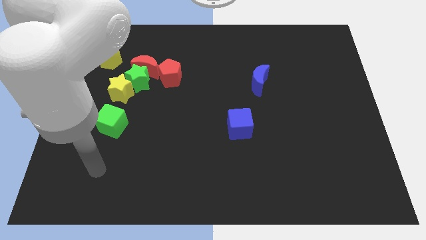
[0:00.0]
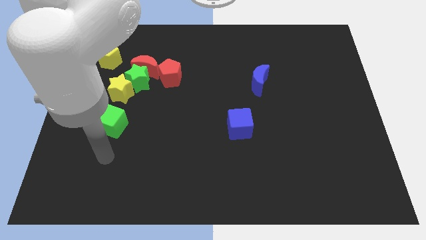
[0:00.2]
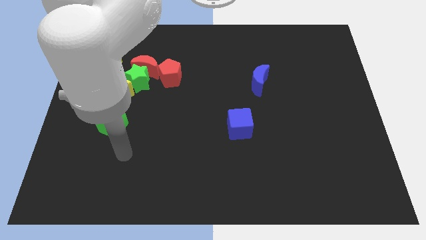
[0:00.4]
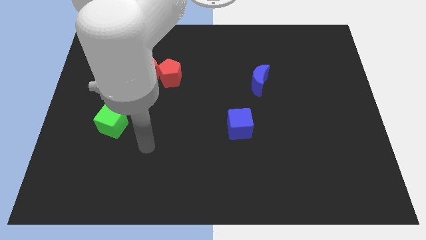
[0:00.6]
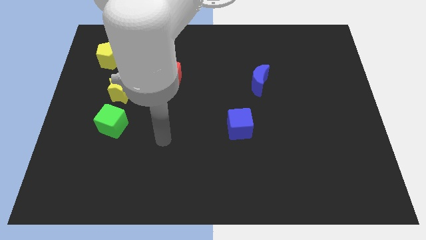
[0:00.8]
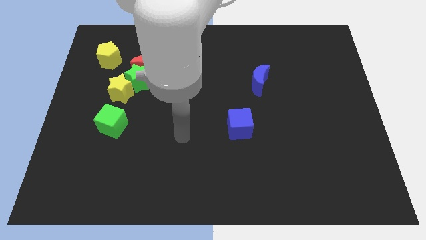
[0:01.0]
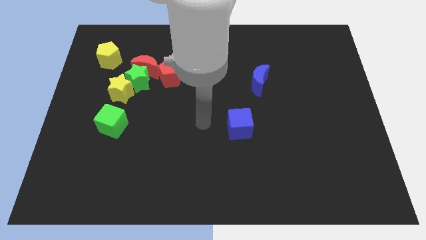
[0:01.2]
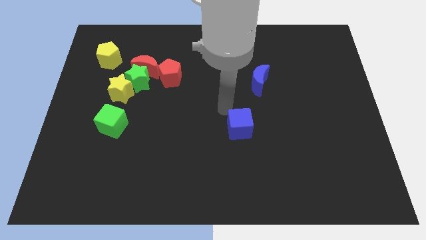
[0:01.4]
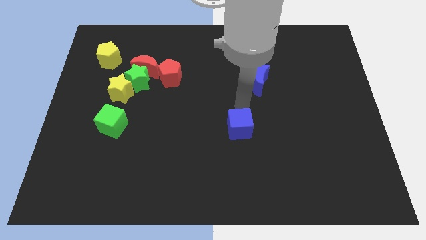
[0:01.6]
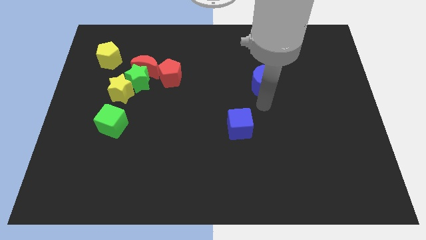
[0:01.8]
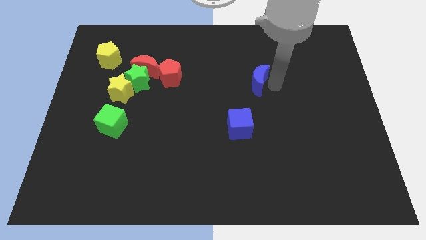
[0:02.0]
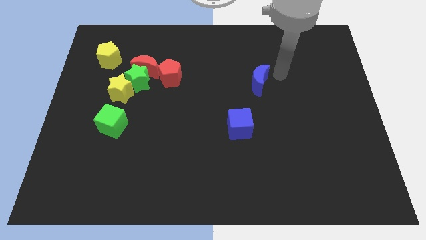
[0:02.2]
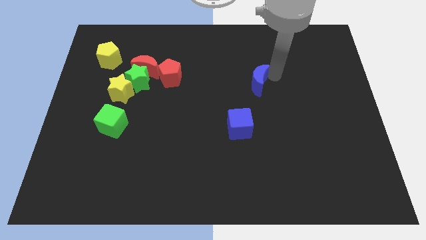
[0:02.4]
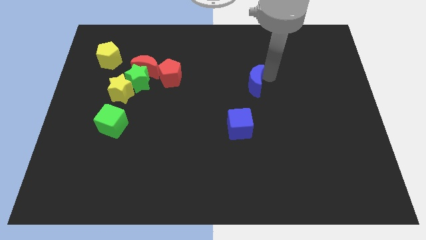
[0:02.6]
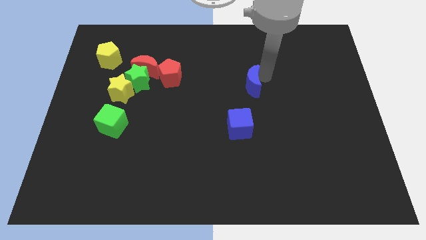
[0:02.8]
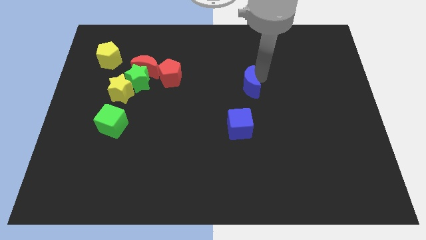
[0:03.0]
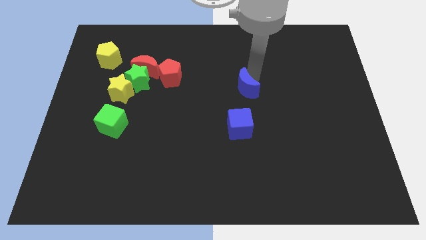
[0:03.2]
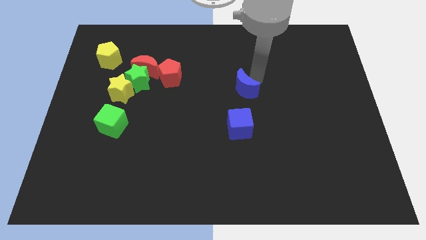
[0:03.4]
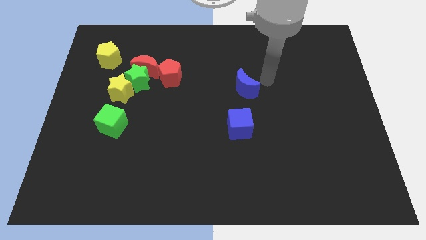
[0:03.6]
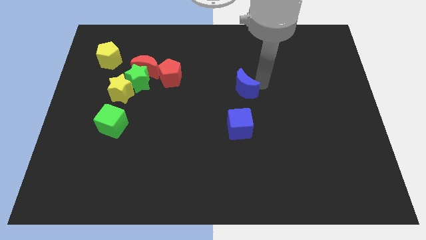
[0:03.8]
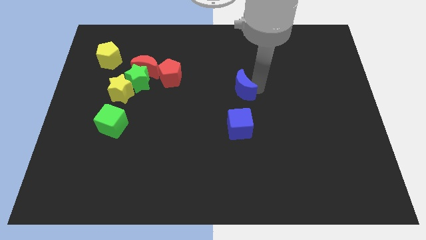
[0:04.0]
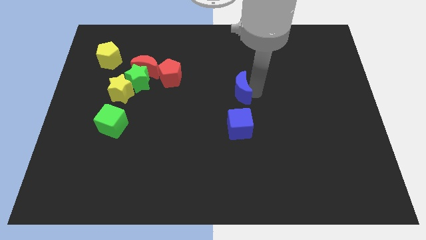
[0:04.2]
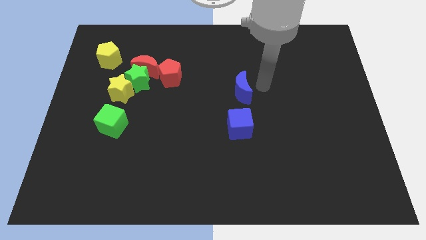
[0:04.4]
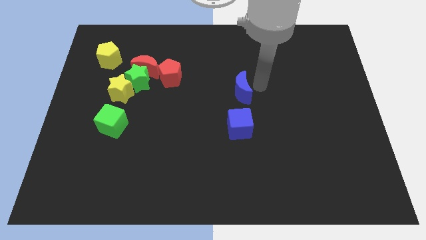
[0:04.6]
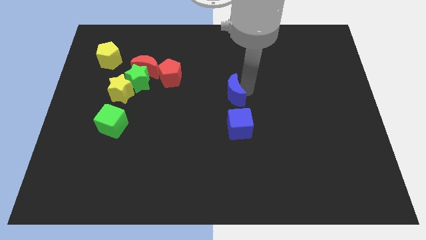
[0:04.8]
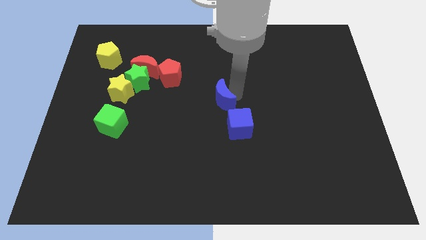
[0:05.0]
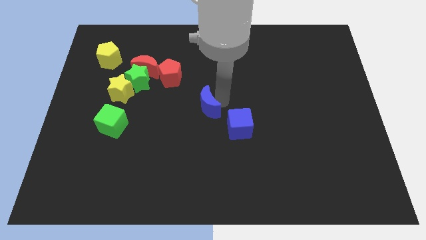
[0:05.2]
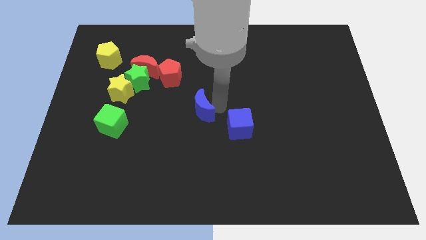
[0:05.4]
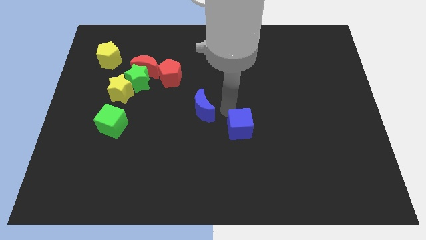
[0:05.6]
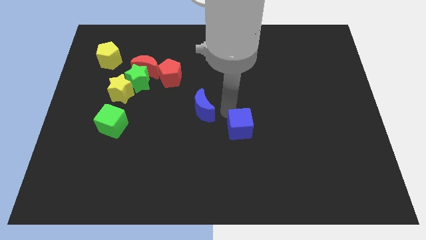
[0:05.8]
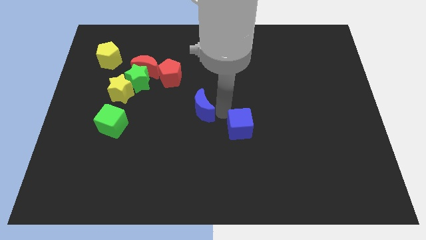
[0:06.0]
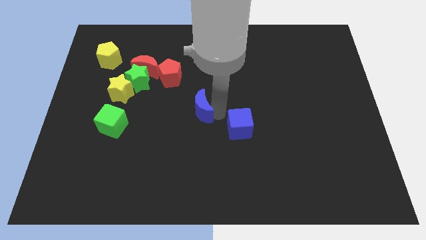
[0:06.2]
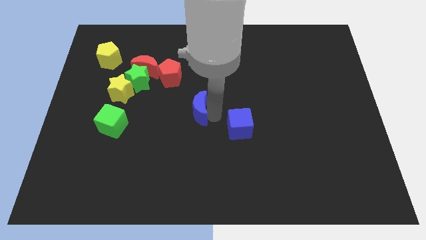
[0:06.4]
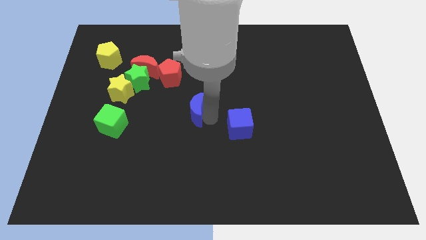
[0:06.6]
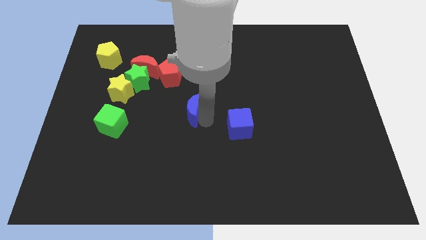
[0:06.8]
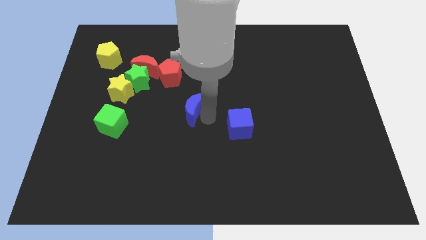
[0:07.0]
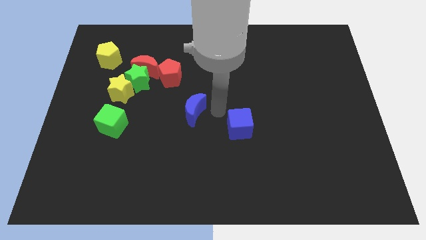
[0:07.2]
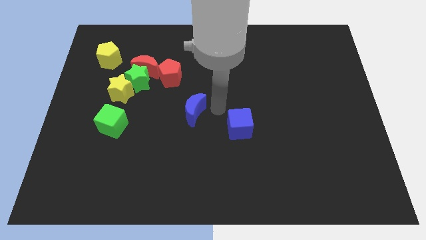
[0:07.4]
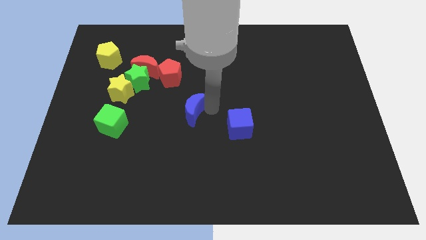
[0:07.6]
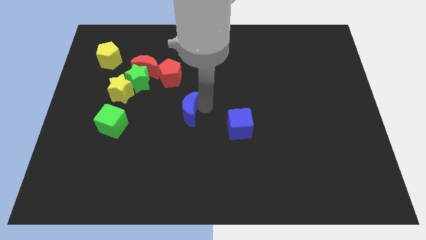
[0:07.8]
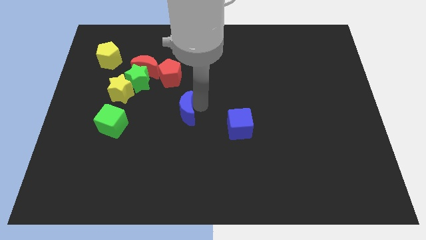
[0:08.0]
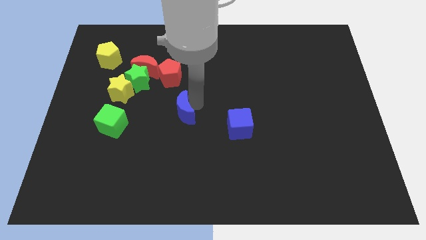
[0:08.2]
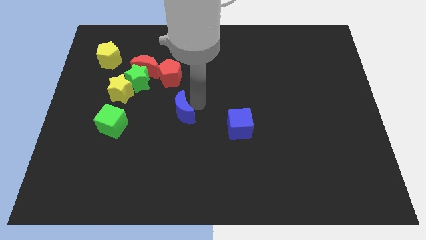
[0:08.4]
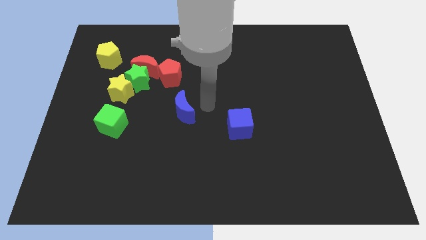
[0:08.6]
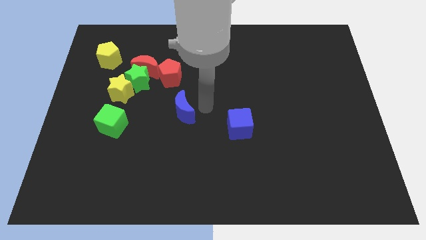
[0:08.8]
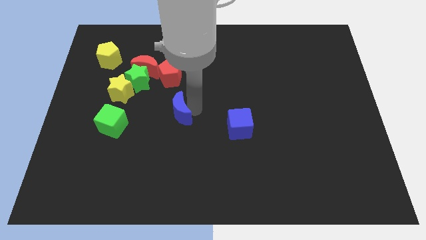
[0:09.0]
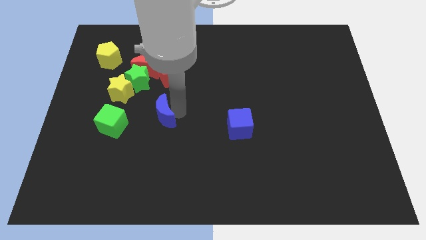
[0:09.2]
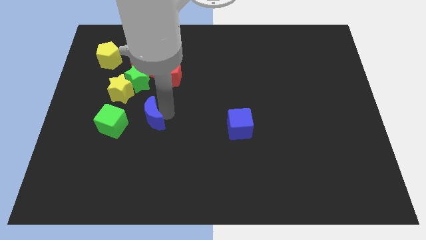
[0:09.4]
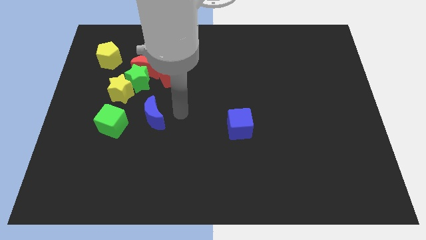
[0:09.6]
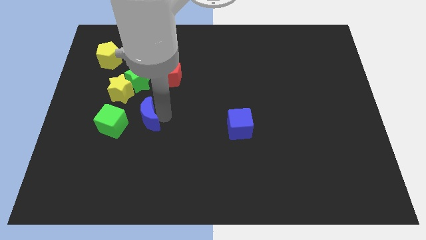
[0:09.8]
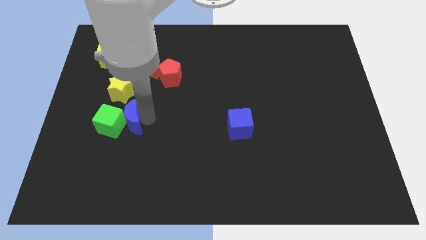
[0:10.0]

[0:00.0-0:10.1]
put the blue moon close to the green cube

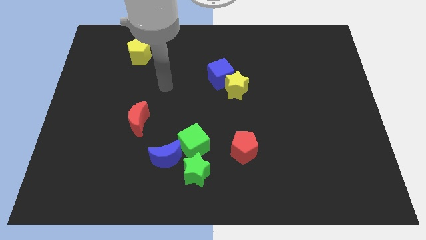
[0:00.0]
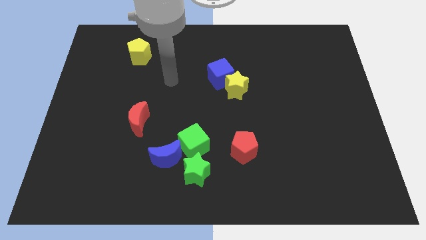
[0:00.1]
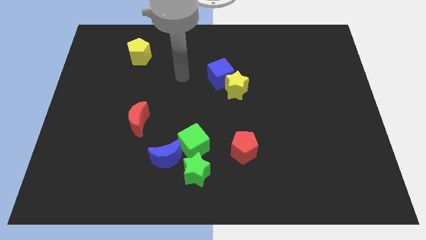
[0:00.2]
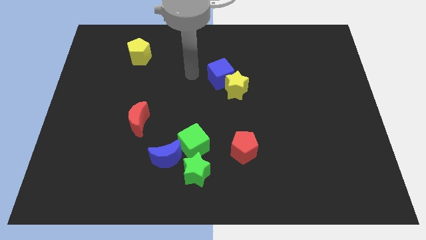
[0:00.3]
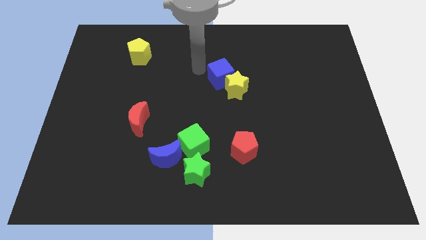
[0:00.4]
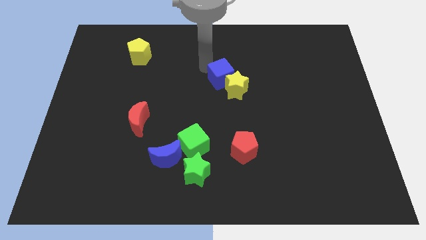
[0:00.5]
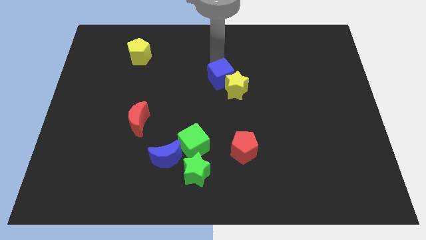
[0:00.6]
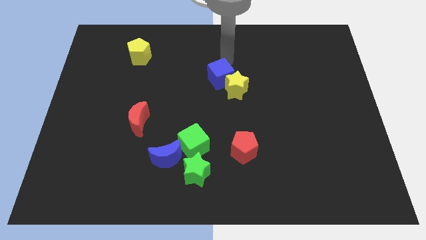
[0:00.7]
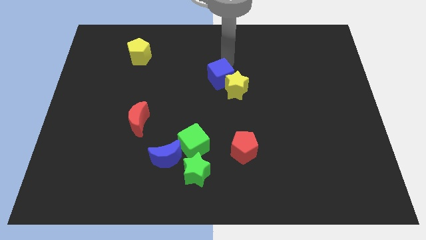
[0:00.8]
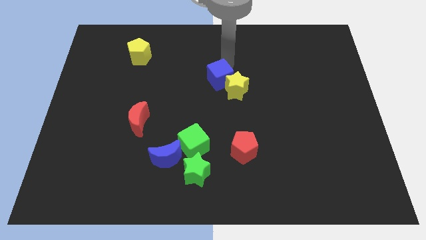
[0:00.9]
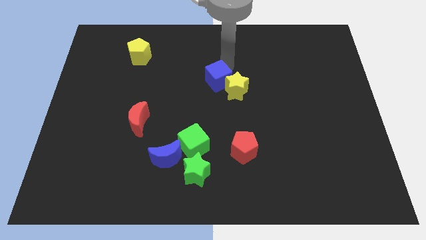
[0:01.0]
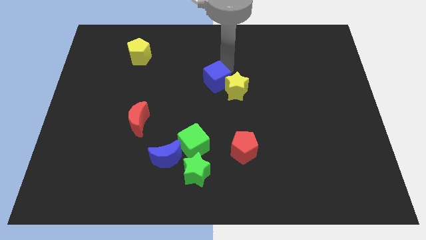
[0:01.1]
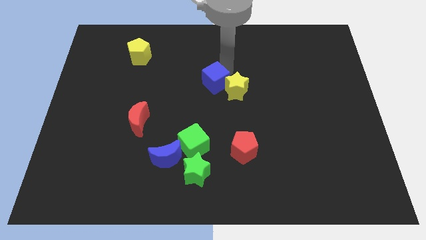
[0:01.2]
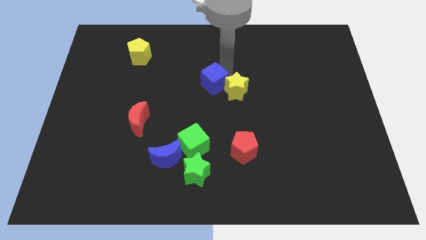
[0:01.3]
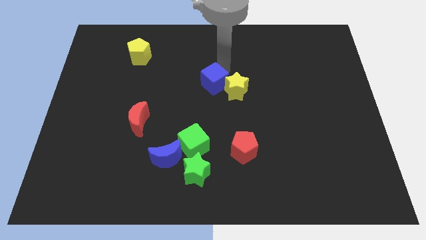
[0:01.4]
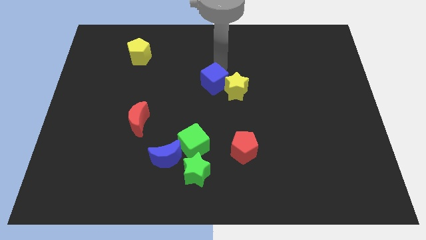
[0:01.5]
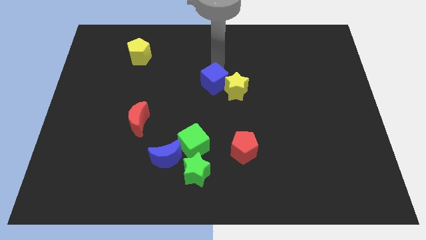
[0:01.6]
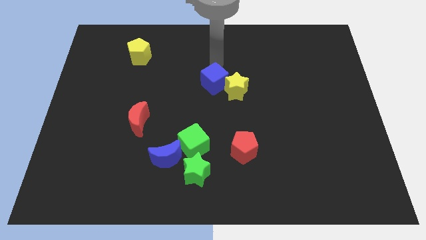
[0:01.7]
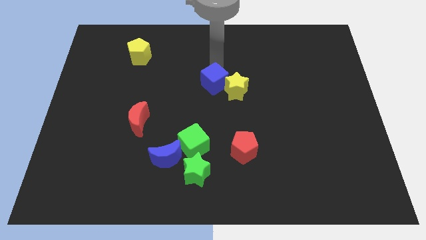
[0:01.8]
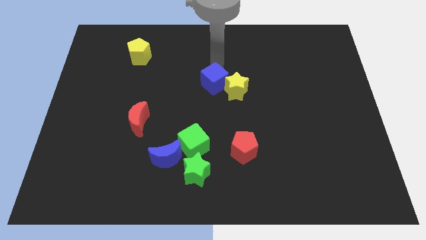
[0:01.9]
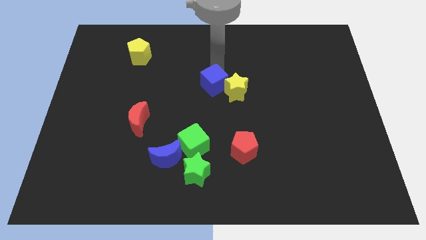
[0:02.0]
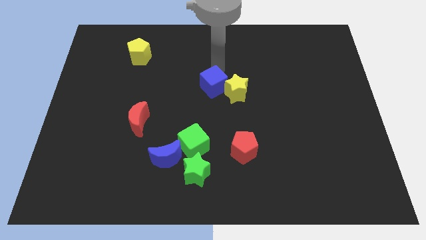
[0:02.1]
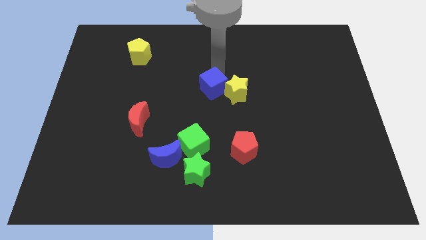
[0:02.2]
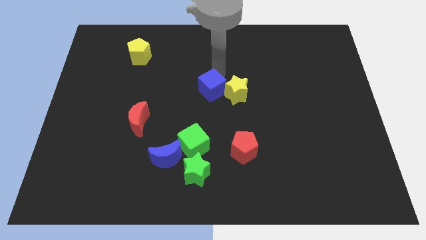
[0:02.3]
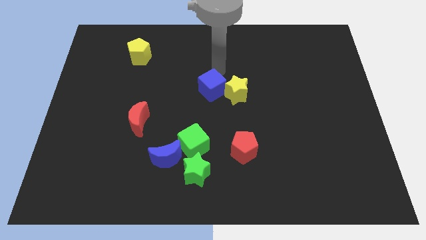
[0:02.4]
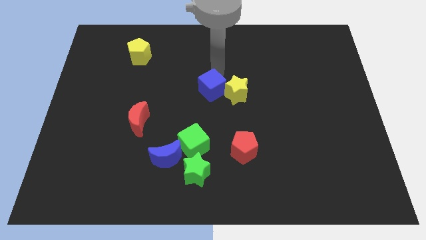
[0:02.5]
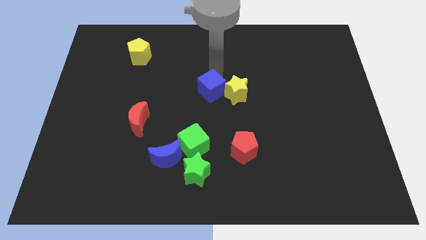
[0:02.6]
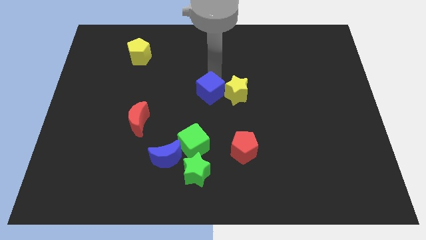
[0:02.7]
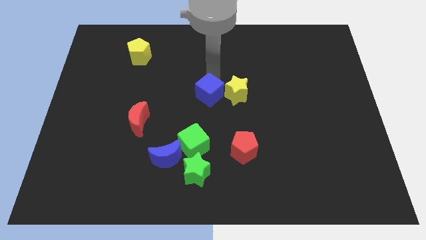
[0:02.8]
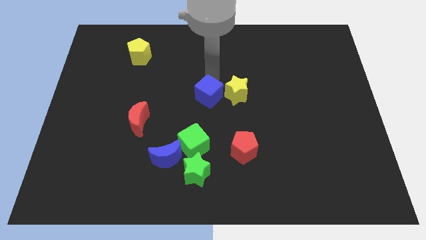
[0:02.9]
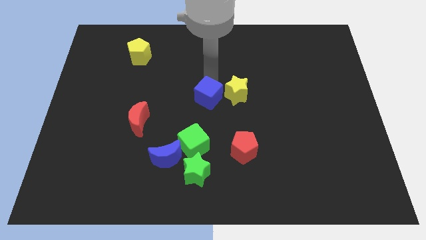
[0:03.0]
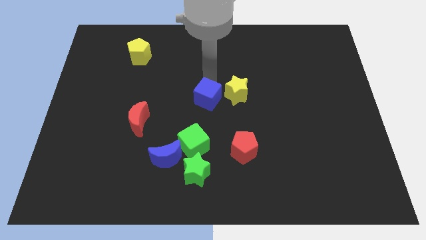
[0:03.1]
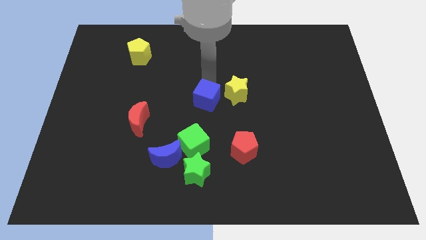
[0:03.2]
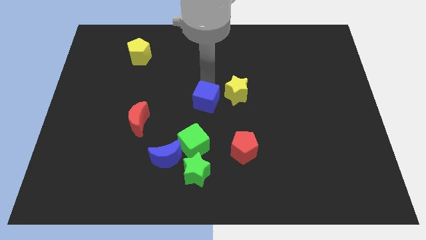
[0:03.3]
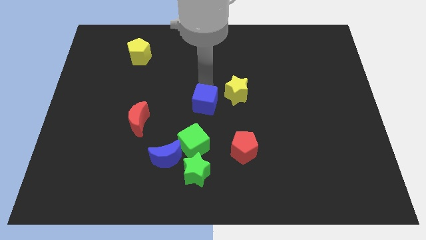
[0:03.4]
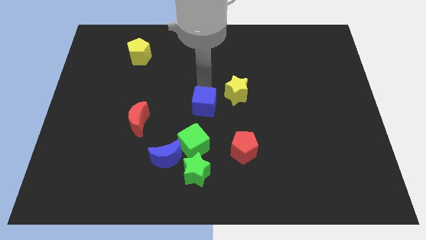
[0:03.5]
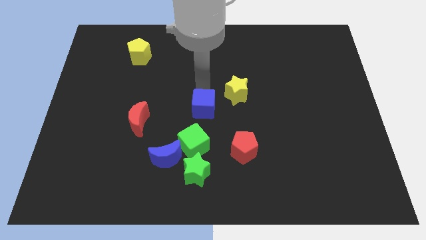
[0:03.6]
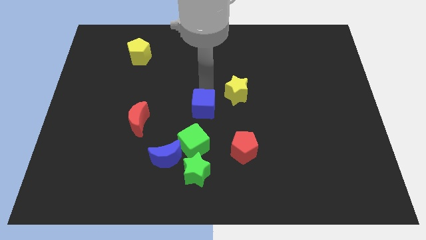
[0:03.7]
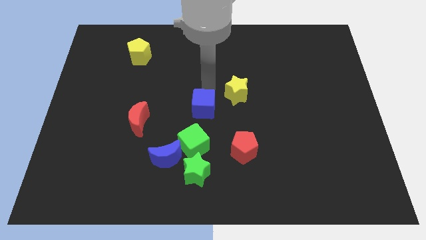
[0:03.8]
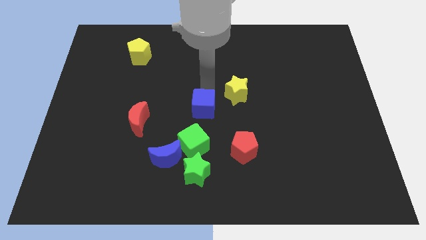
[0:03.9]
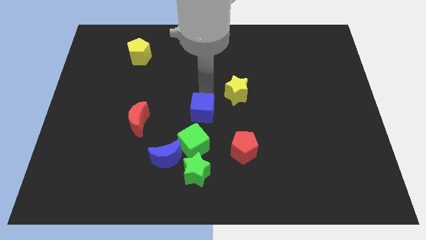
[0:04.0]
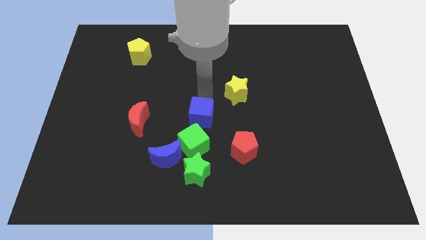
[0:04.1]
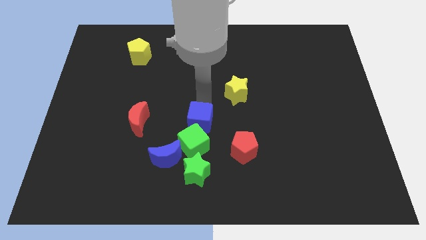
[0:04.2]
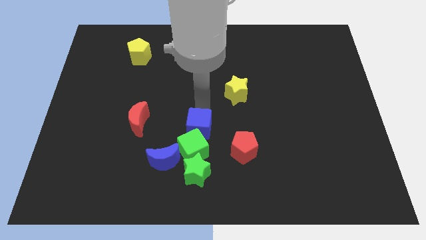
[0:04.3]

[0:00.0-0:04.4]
push the blue cube next to the green cube
